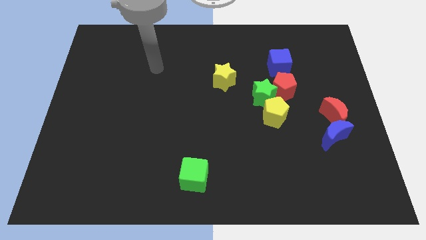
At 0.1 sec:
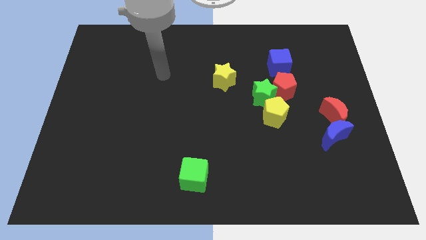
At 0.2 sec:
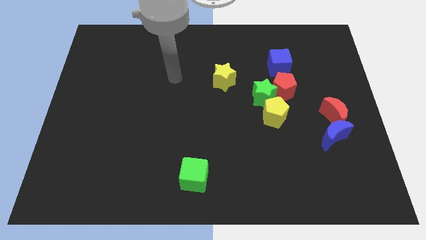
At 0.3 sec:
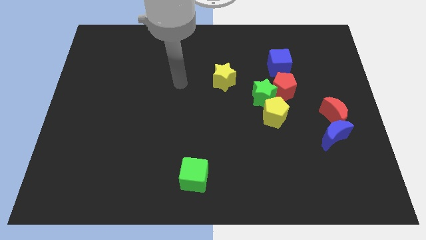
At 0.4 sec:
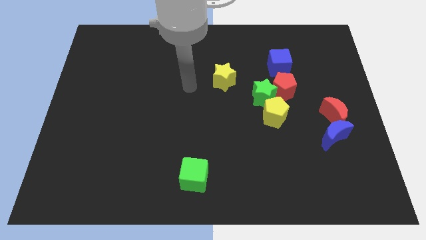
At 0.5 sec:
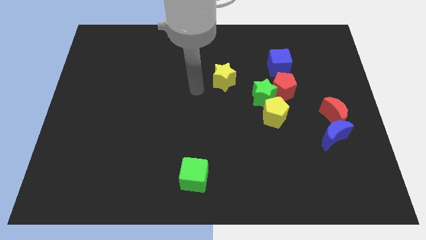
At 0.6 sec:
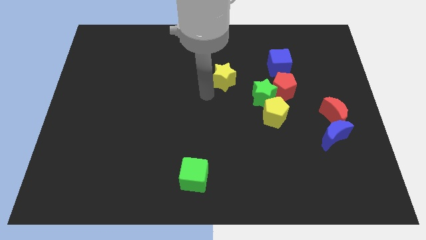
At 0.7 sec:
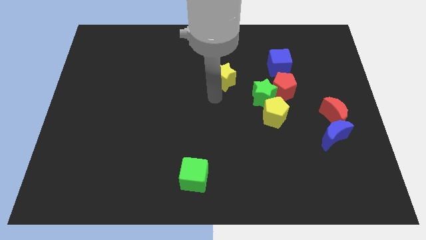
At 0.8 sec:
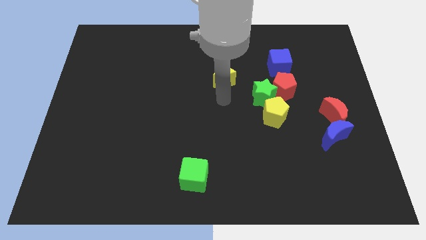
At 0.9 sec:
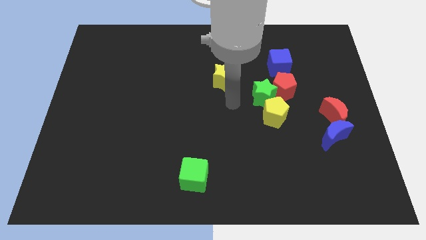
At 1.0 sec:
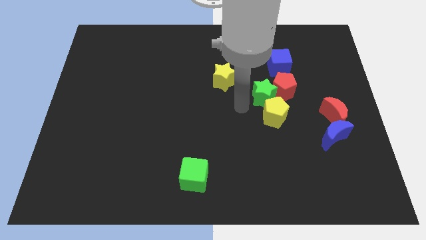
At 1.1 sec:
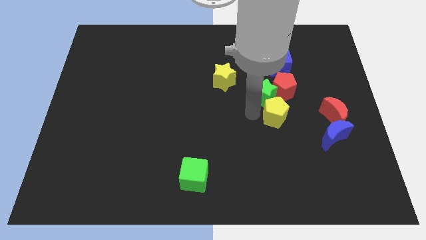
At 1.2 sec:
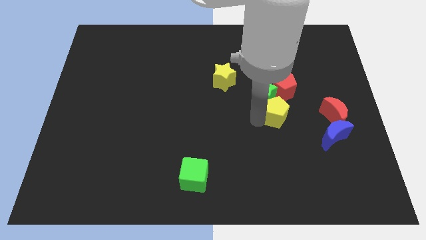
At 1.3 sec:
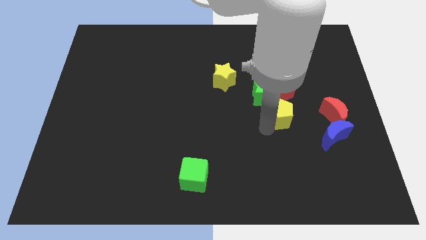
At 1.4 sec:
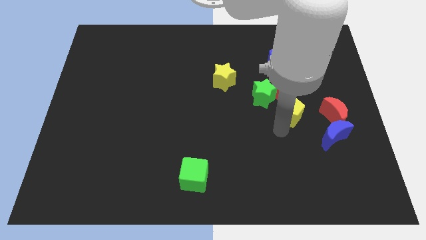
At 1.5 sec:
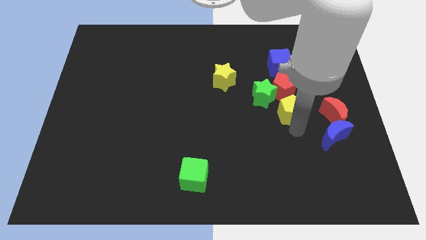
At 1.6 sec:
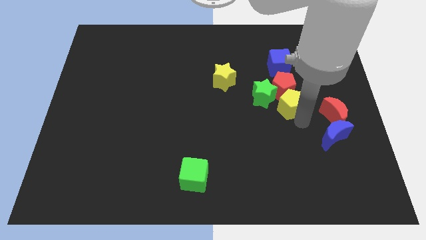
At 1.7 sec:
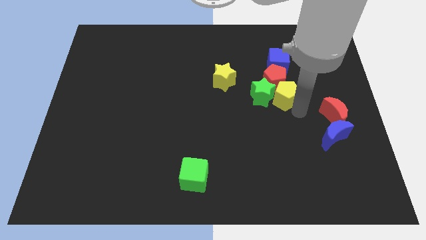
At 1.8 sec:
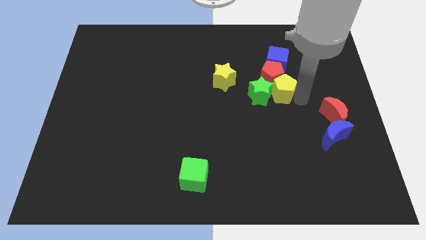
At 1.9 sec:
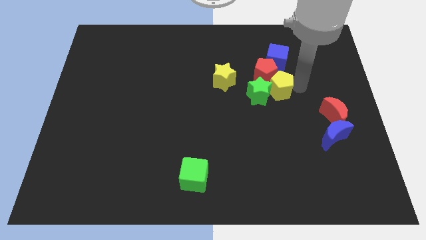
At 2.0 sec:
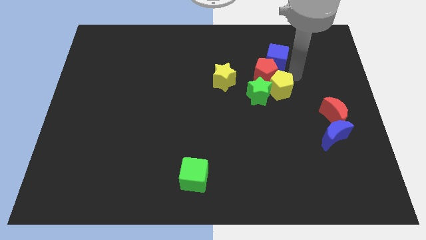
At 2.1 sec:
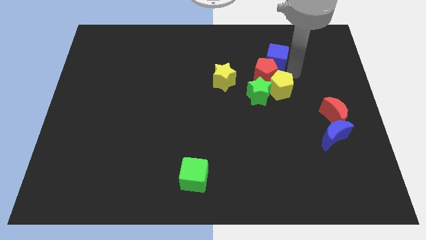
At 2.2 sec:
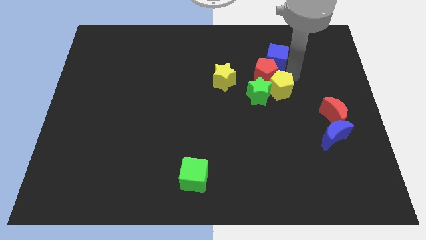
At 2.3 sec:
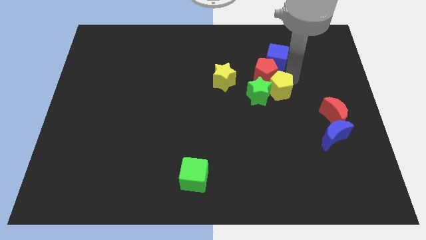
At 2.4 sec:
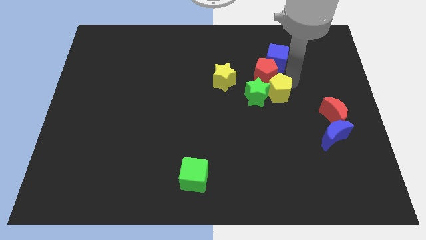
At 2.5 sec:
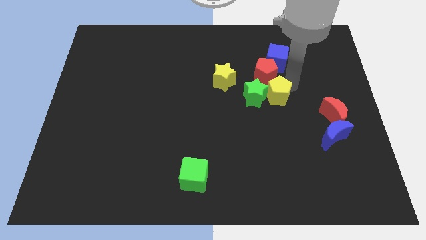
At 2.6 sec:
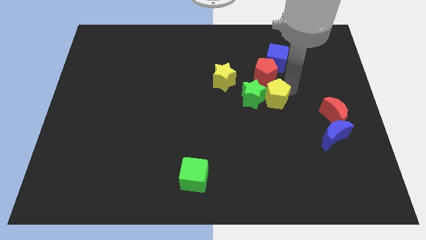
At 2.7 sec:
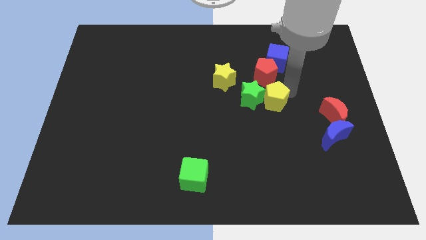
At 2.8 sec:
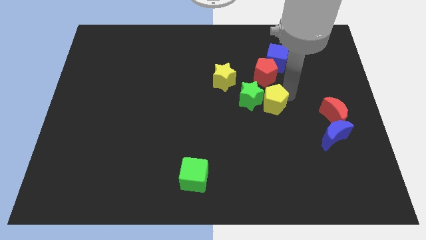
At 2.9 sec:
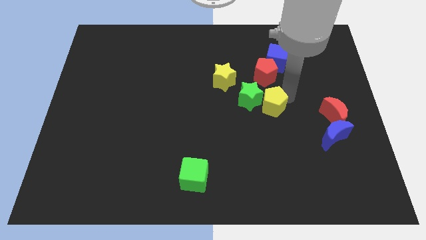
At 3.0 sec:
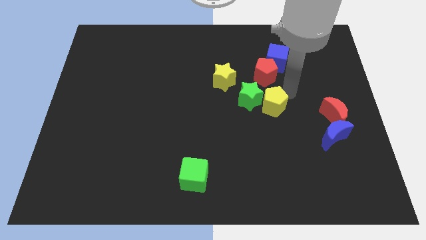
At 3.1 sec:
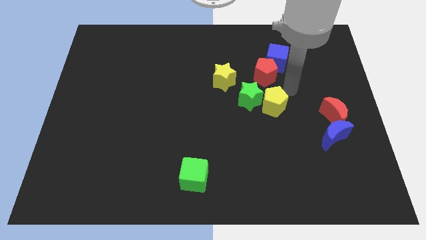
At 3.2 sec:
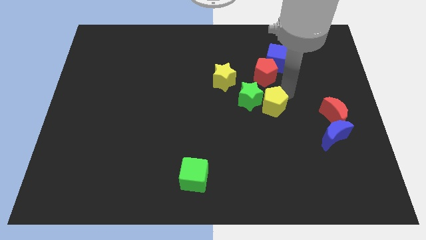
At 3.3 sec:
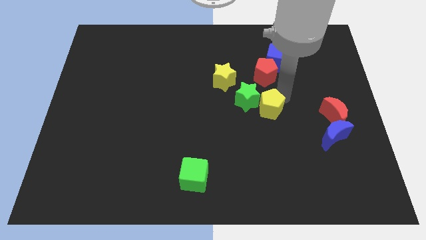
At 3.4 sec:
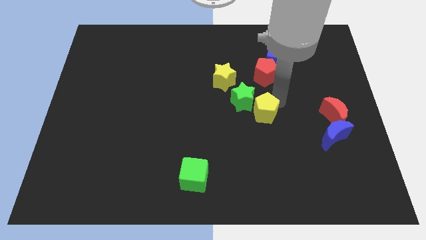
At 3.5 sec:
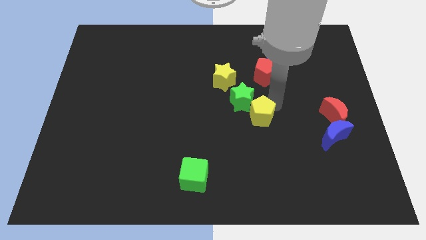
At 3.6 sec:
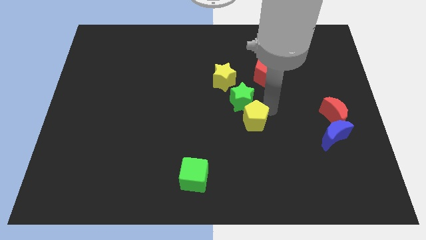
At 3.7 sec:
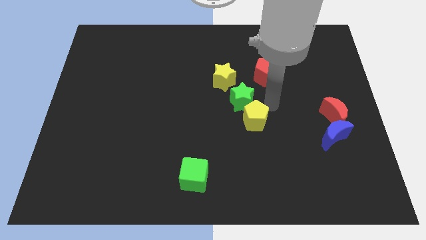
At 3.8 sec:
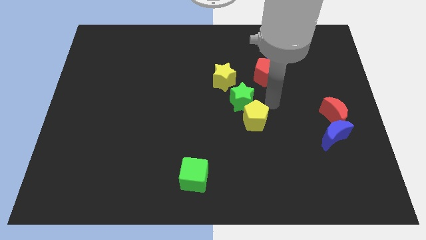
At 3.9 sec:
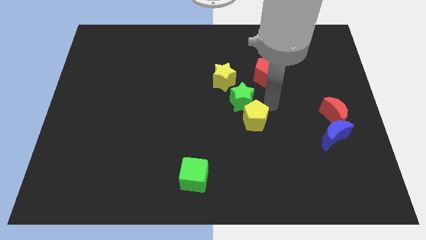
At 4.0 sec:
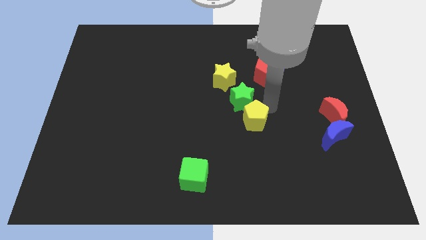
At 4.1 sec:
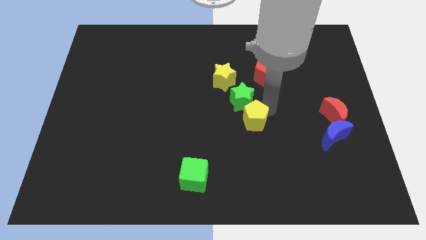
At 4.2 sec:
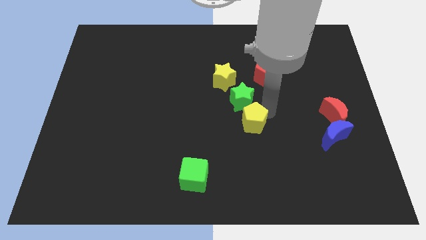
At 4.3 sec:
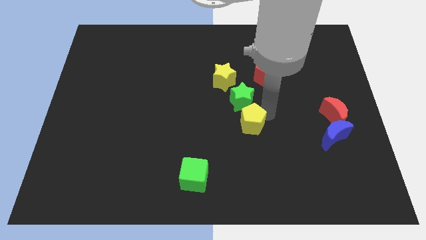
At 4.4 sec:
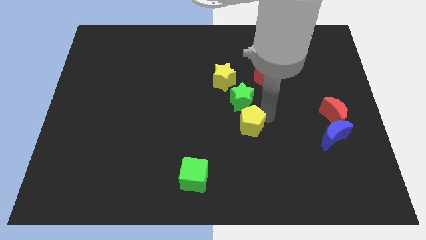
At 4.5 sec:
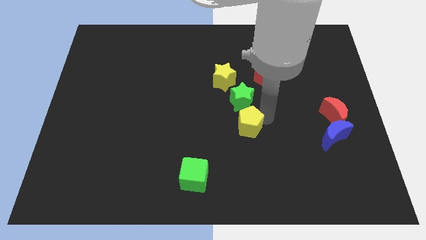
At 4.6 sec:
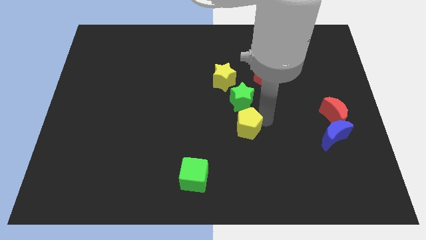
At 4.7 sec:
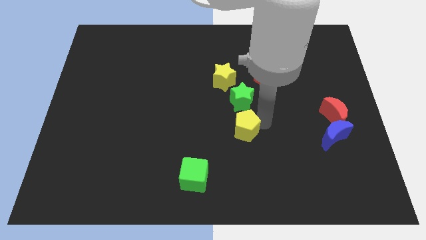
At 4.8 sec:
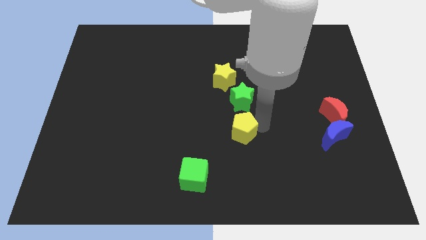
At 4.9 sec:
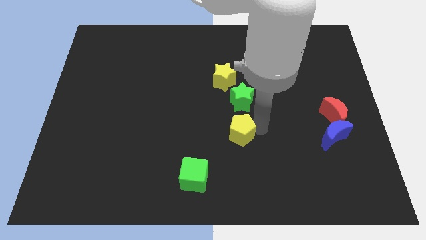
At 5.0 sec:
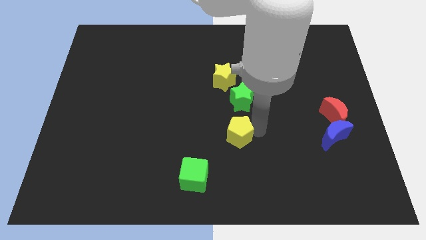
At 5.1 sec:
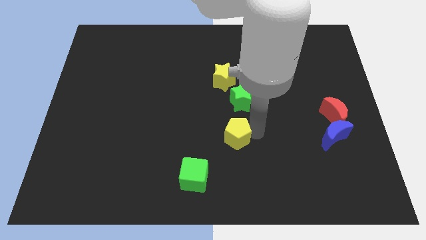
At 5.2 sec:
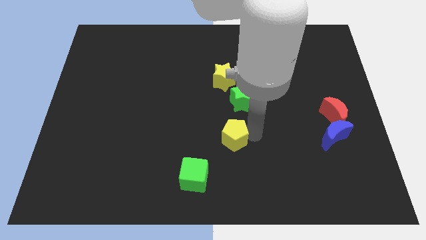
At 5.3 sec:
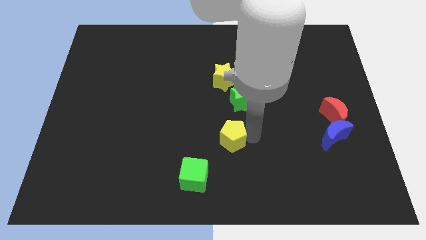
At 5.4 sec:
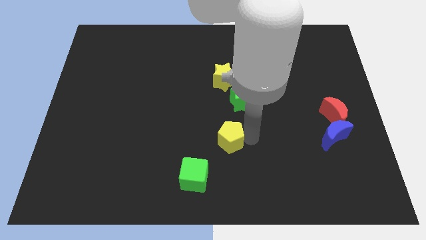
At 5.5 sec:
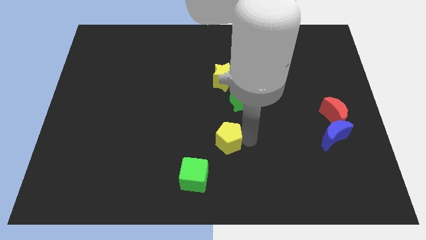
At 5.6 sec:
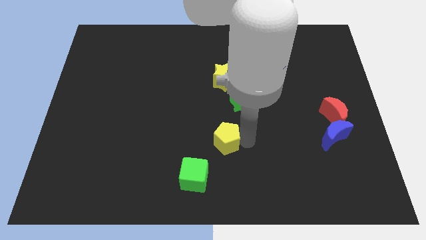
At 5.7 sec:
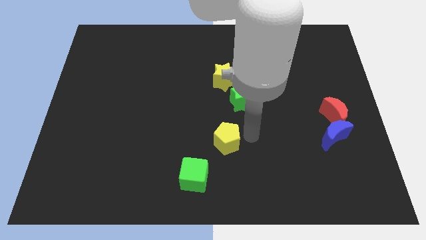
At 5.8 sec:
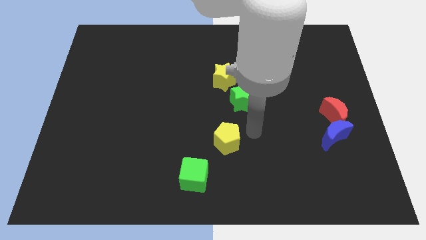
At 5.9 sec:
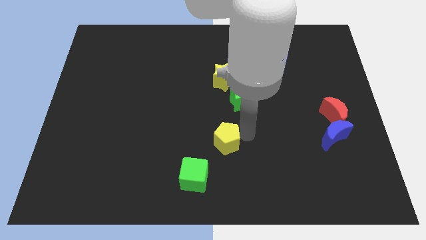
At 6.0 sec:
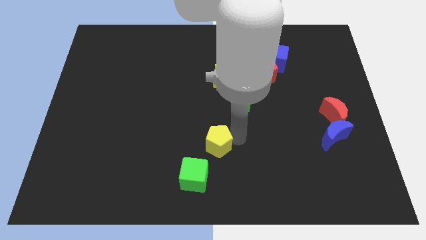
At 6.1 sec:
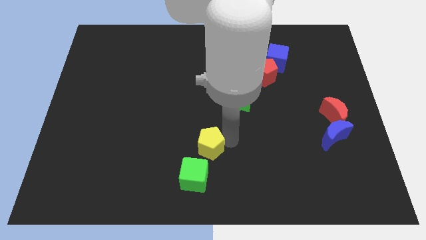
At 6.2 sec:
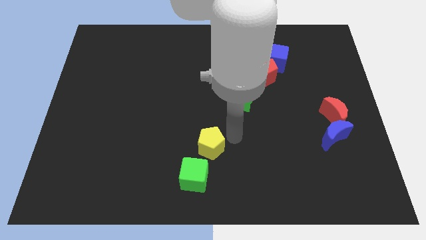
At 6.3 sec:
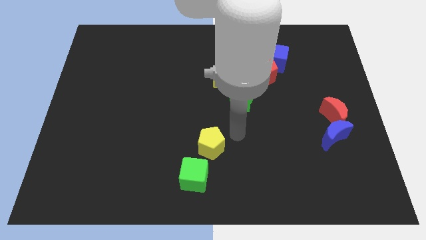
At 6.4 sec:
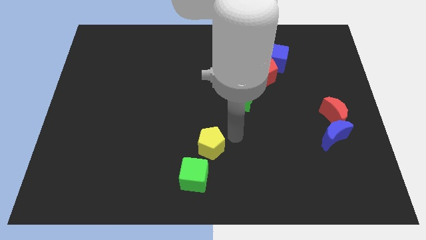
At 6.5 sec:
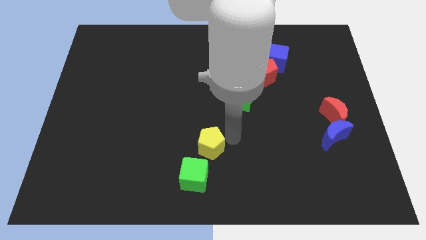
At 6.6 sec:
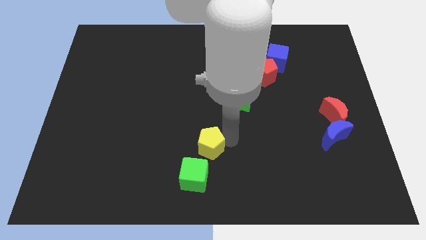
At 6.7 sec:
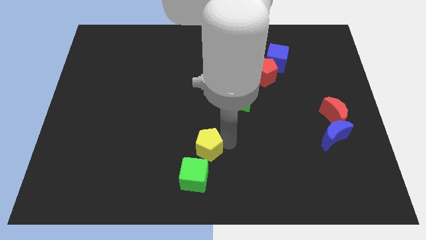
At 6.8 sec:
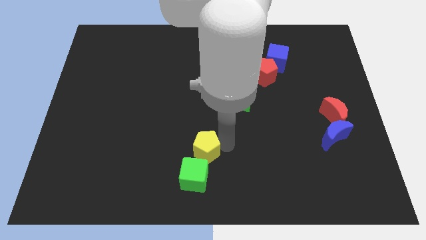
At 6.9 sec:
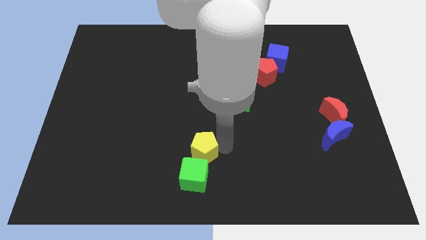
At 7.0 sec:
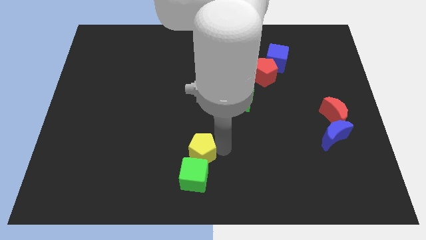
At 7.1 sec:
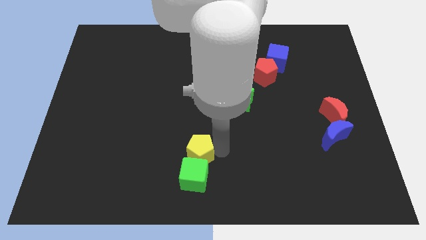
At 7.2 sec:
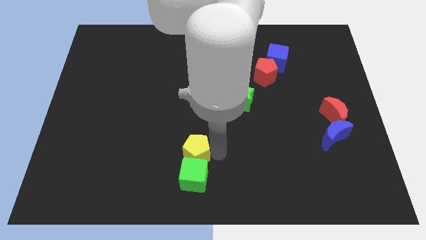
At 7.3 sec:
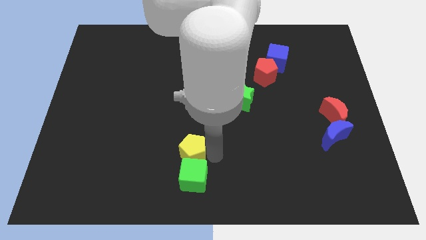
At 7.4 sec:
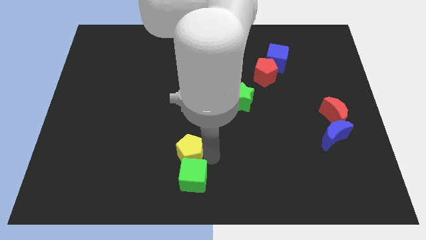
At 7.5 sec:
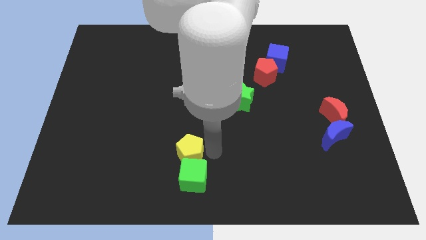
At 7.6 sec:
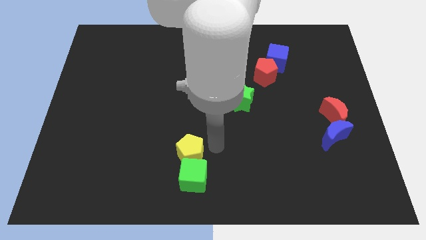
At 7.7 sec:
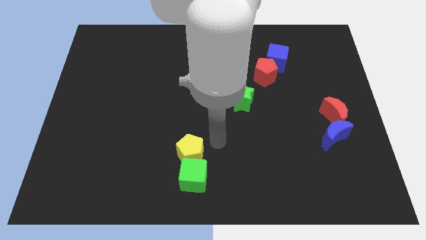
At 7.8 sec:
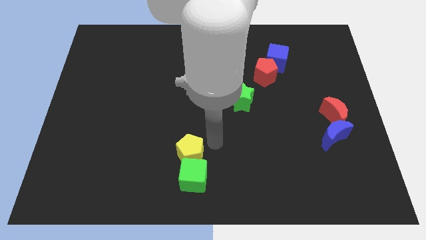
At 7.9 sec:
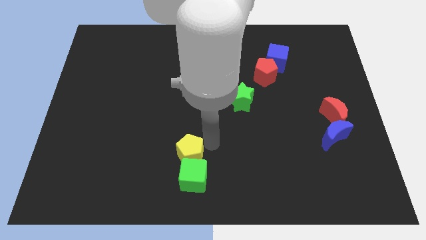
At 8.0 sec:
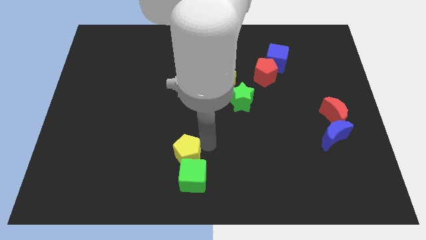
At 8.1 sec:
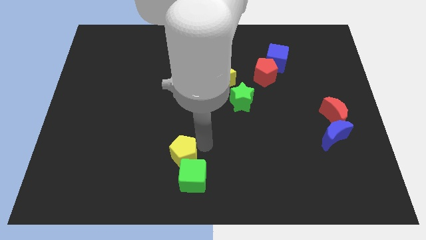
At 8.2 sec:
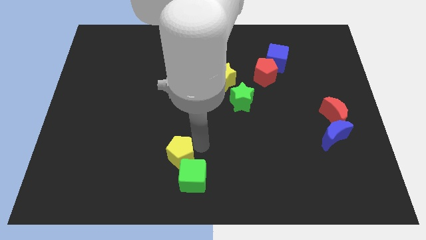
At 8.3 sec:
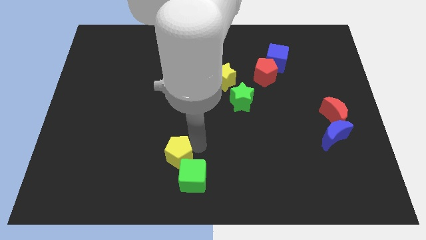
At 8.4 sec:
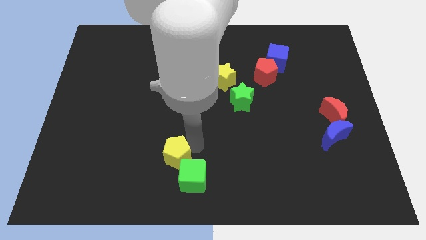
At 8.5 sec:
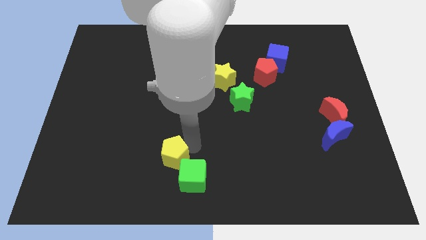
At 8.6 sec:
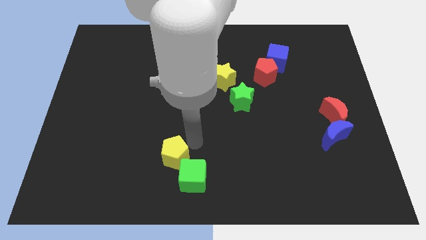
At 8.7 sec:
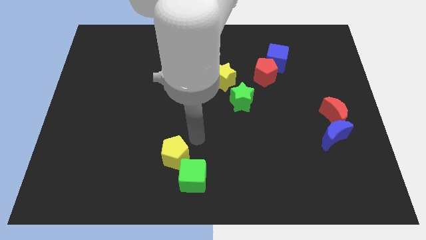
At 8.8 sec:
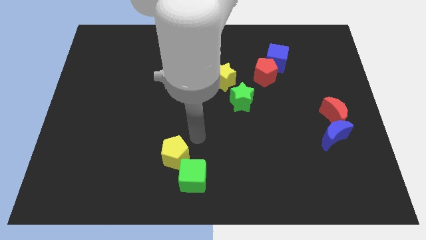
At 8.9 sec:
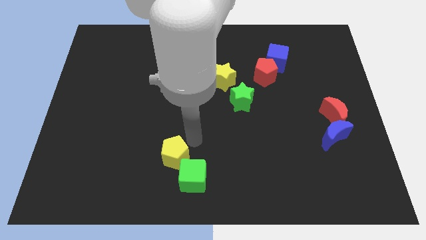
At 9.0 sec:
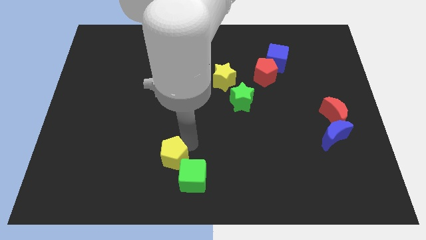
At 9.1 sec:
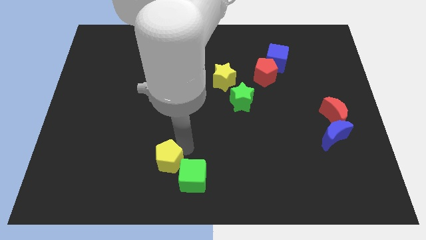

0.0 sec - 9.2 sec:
move the yellow pentagon left of the green cube
